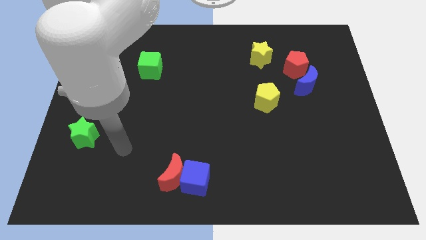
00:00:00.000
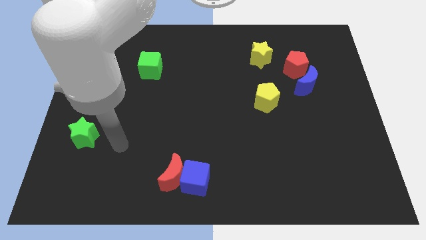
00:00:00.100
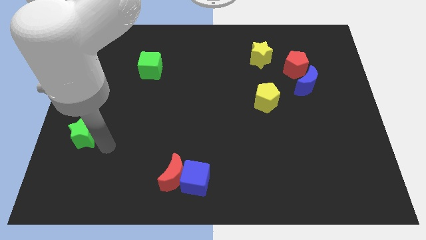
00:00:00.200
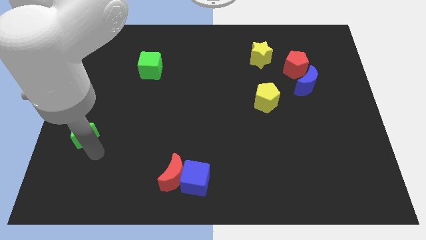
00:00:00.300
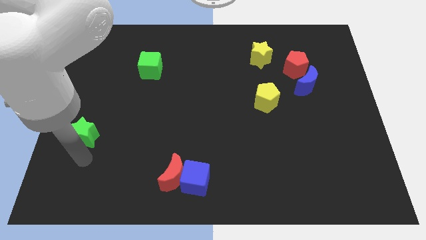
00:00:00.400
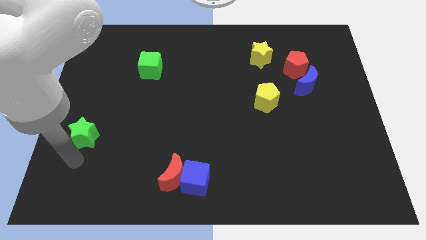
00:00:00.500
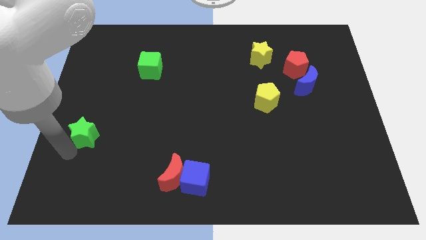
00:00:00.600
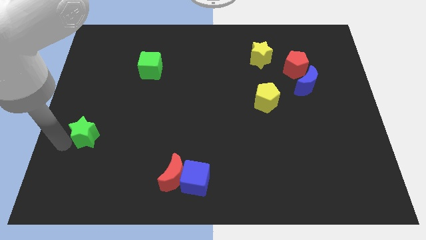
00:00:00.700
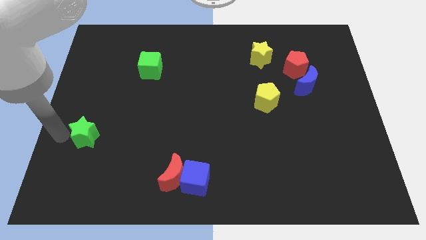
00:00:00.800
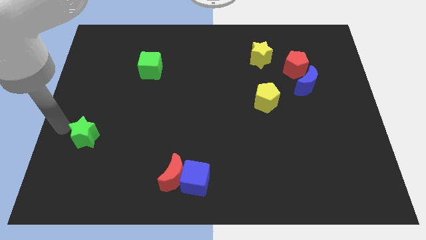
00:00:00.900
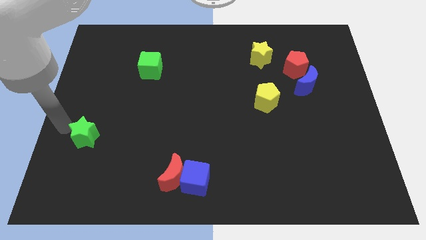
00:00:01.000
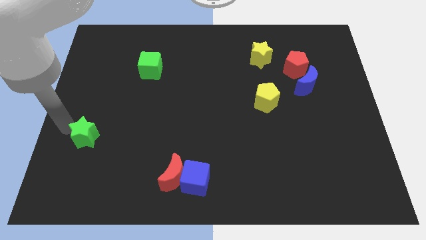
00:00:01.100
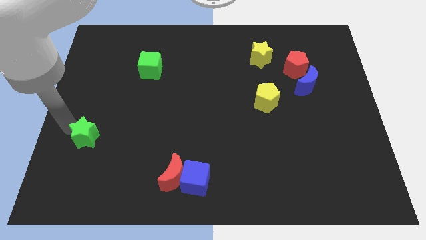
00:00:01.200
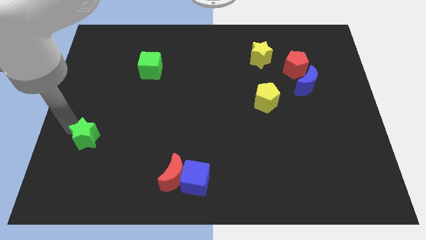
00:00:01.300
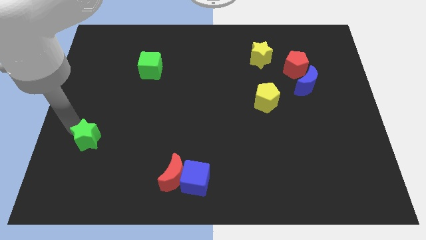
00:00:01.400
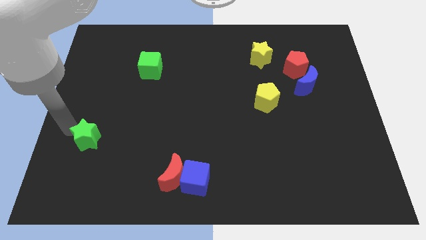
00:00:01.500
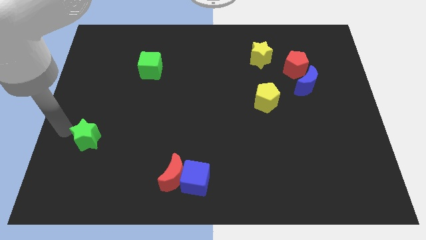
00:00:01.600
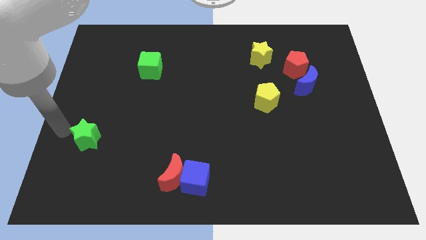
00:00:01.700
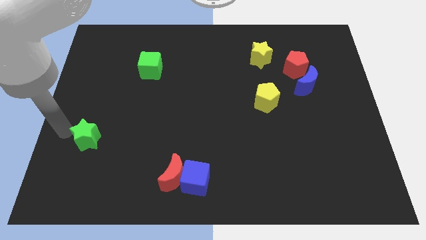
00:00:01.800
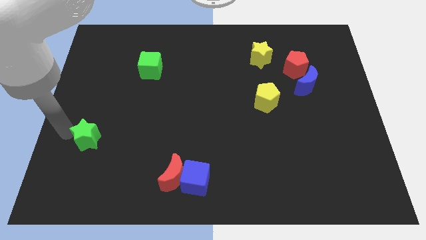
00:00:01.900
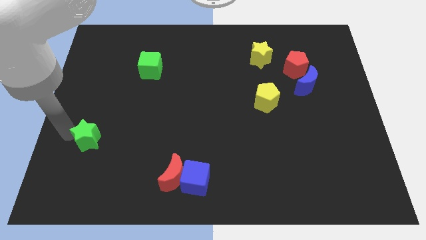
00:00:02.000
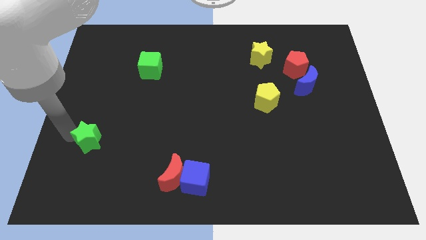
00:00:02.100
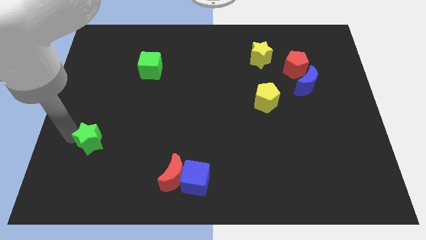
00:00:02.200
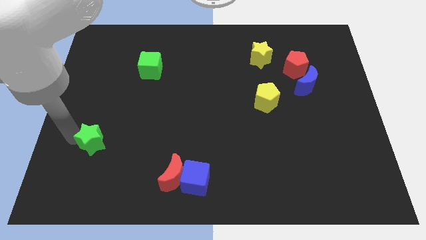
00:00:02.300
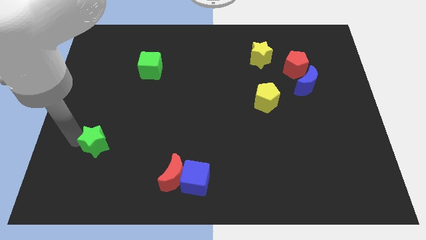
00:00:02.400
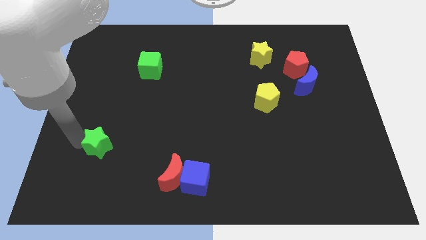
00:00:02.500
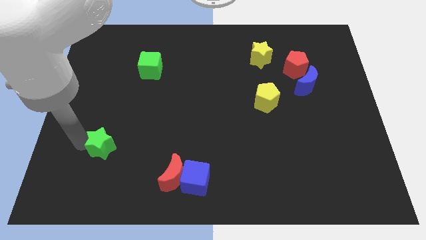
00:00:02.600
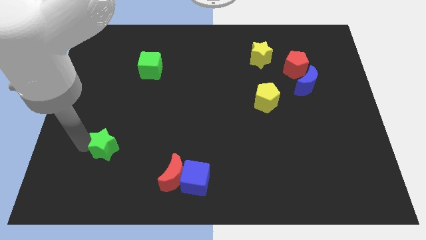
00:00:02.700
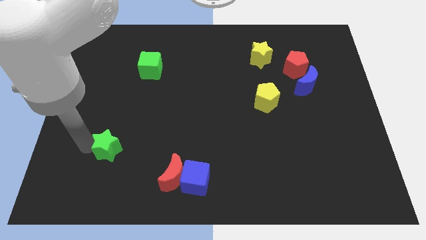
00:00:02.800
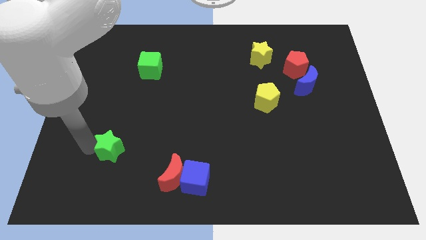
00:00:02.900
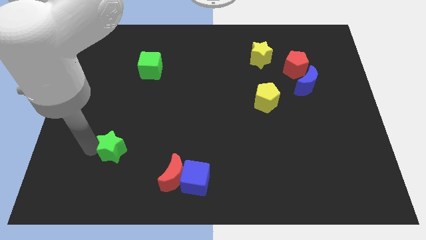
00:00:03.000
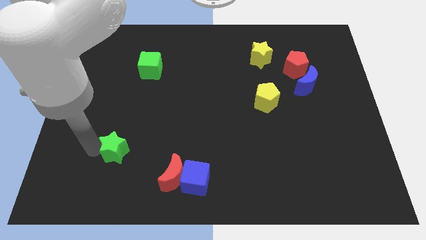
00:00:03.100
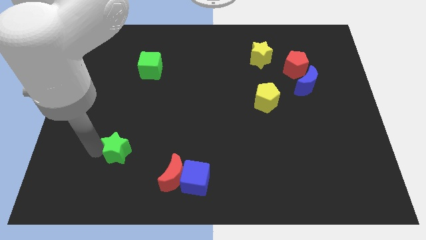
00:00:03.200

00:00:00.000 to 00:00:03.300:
push the green star right a bit

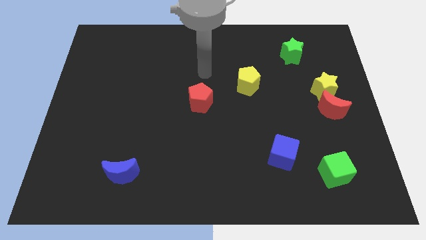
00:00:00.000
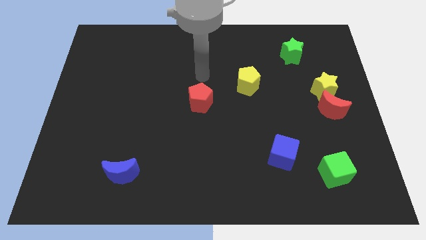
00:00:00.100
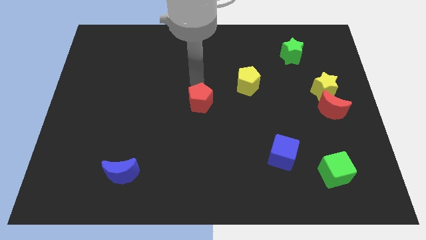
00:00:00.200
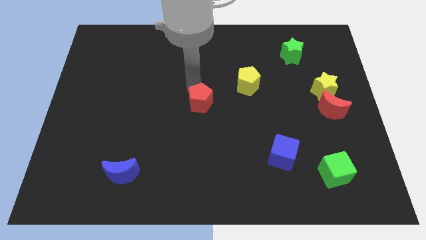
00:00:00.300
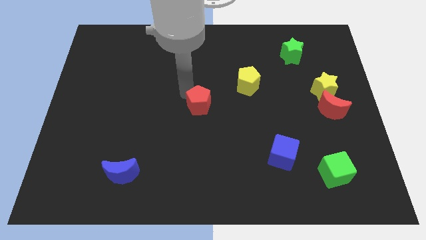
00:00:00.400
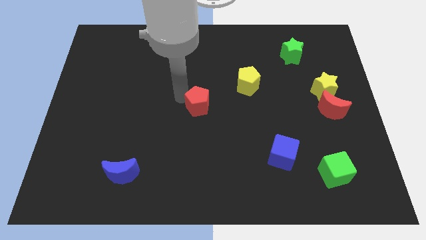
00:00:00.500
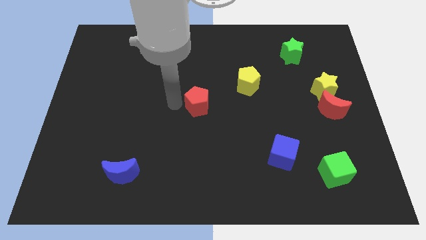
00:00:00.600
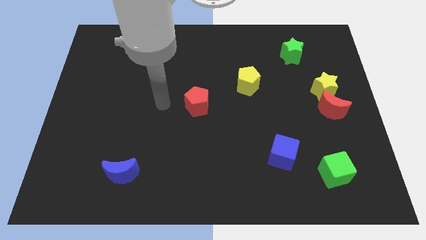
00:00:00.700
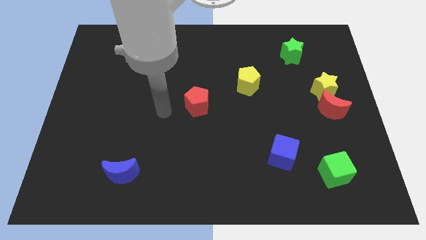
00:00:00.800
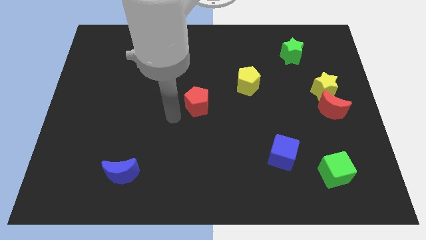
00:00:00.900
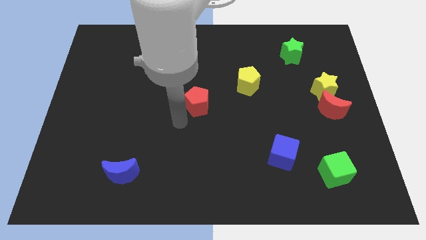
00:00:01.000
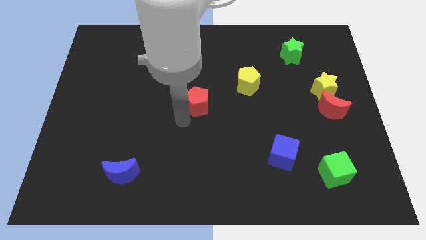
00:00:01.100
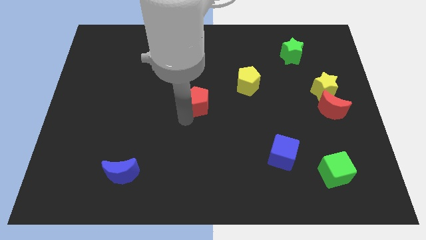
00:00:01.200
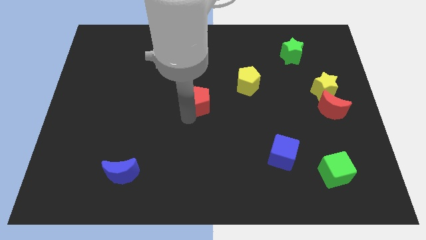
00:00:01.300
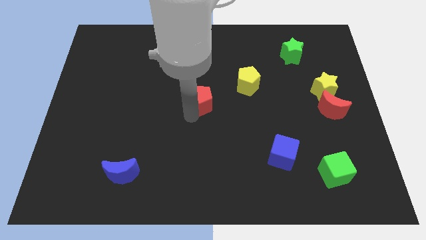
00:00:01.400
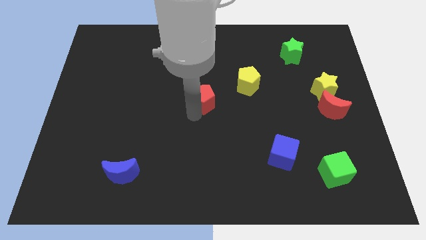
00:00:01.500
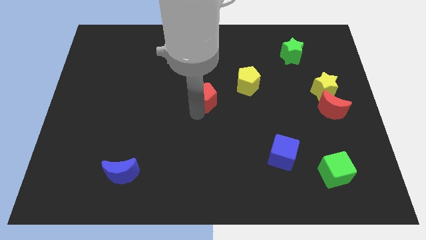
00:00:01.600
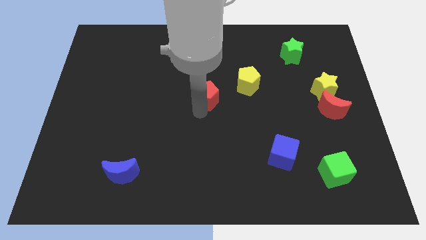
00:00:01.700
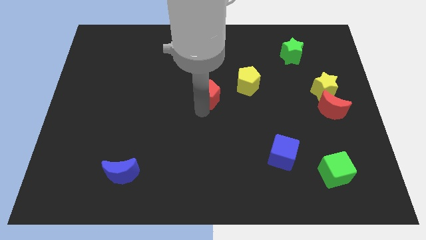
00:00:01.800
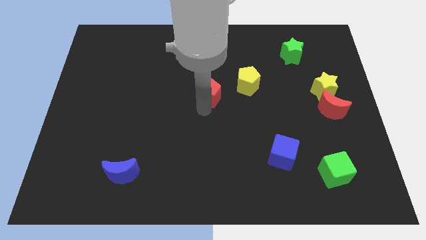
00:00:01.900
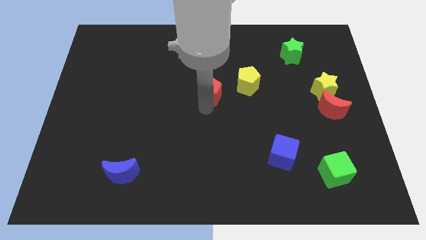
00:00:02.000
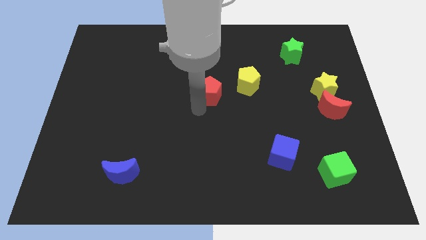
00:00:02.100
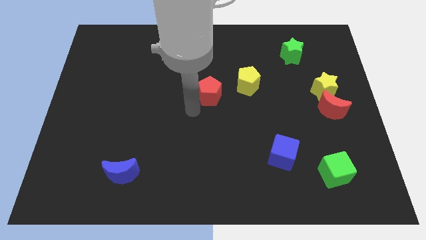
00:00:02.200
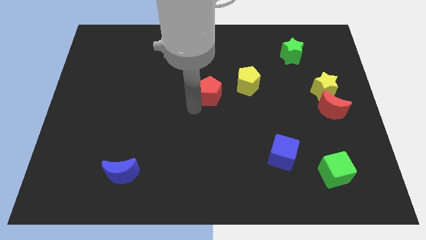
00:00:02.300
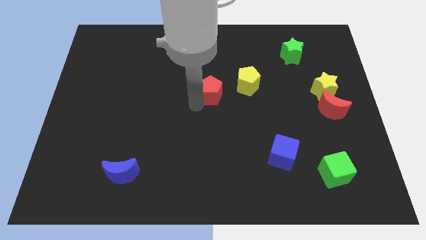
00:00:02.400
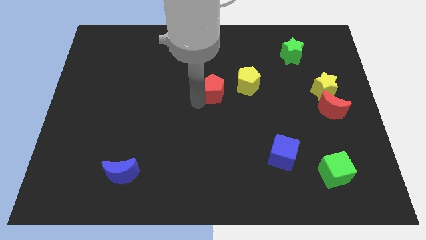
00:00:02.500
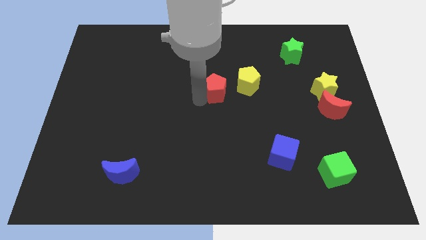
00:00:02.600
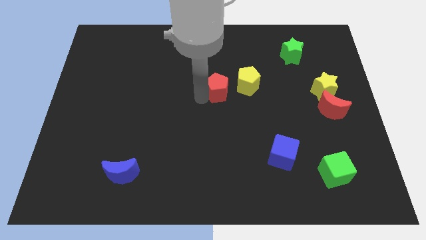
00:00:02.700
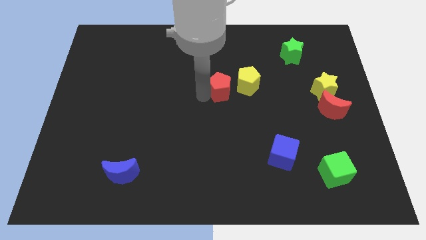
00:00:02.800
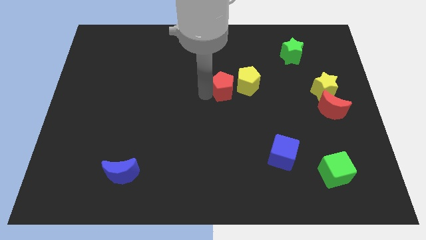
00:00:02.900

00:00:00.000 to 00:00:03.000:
move the red pentagon diagonally upwards and to the right somewhat

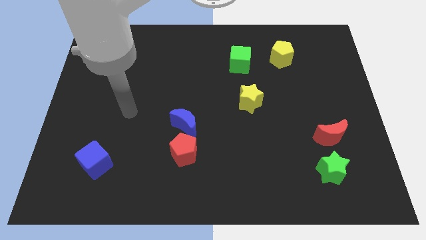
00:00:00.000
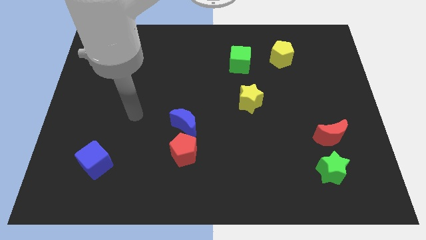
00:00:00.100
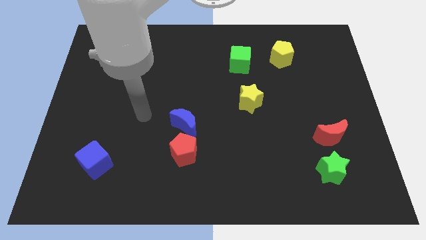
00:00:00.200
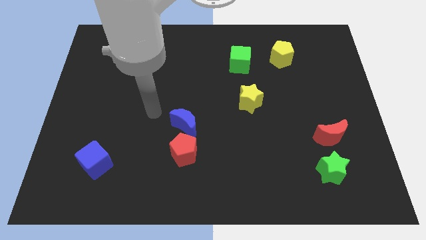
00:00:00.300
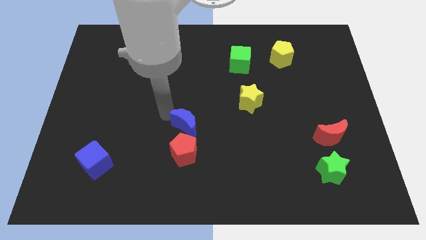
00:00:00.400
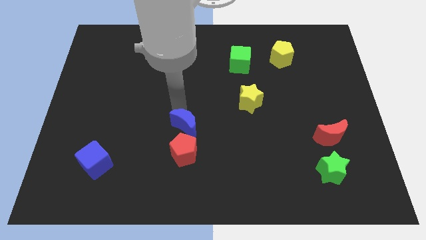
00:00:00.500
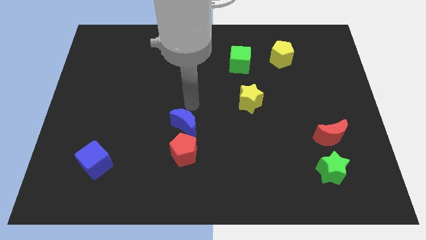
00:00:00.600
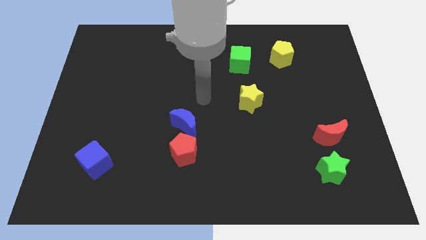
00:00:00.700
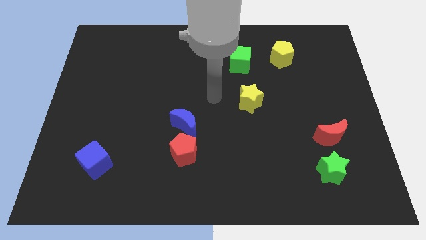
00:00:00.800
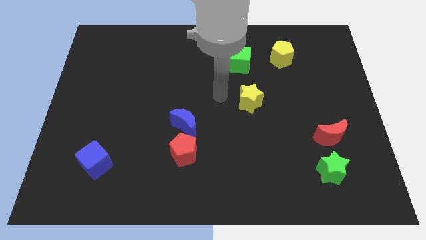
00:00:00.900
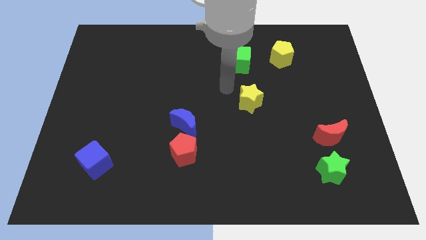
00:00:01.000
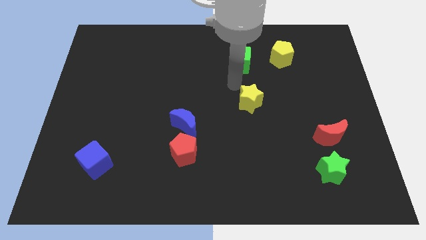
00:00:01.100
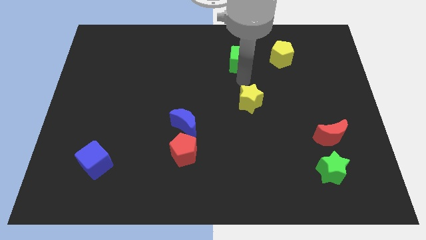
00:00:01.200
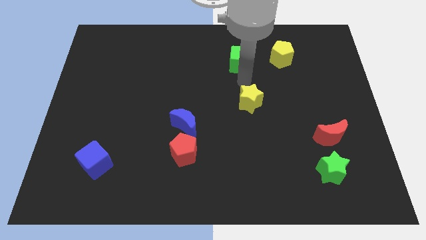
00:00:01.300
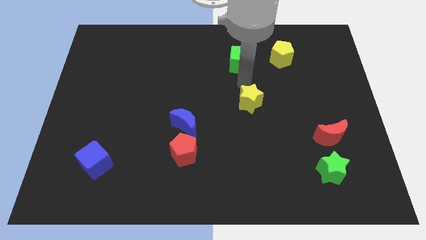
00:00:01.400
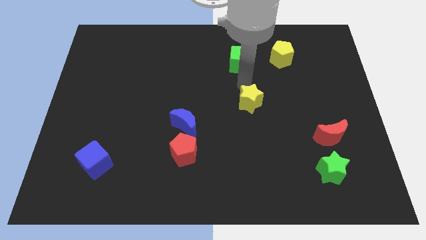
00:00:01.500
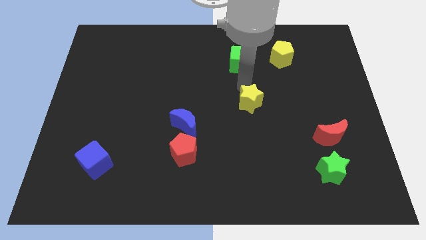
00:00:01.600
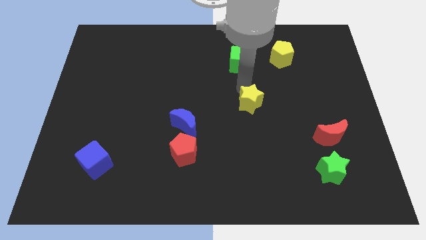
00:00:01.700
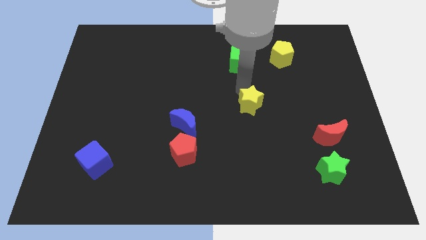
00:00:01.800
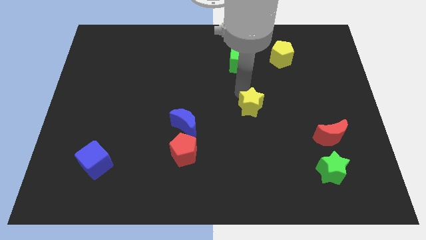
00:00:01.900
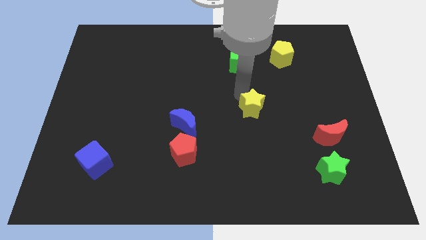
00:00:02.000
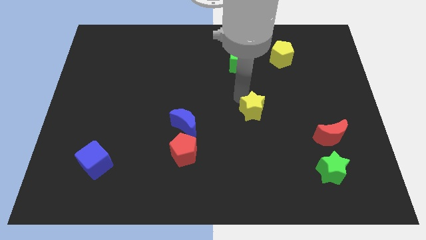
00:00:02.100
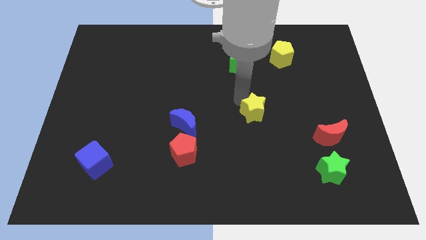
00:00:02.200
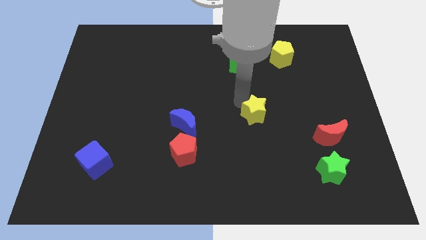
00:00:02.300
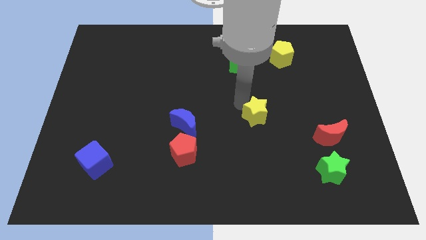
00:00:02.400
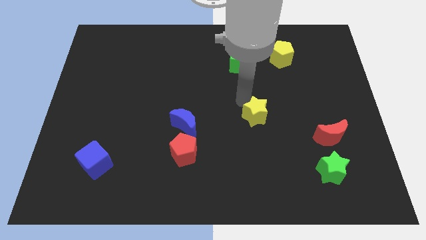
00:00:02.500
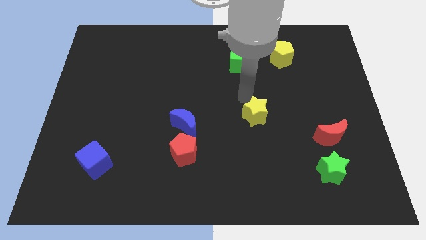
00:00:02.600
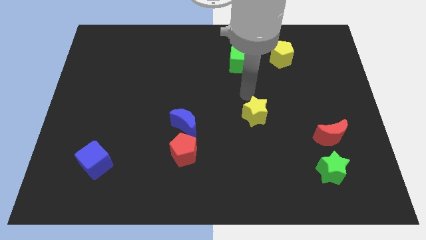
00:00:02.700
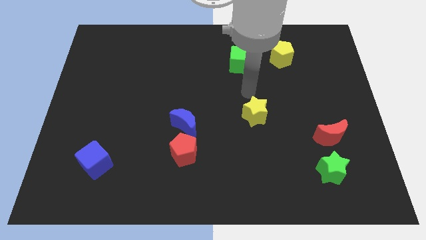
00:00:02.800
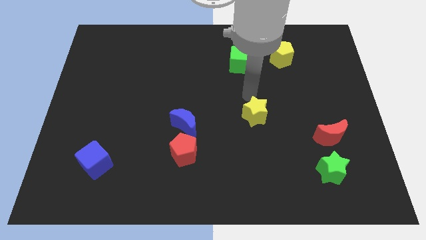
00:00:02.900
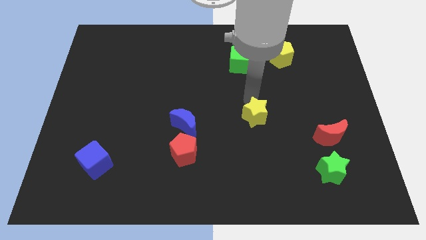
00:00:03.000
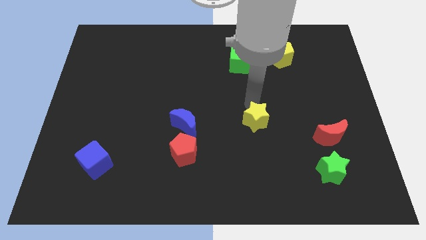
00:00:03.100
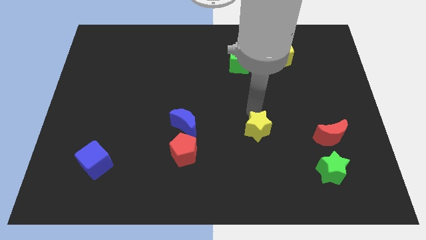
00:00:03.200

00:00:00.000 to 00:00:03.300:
move the yellow star down a bit
